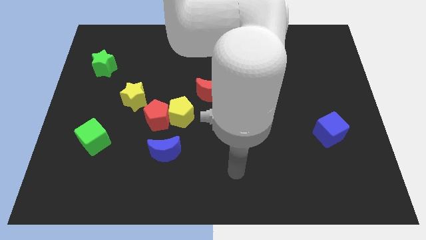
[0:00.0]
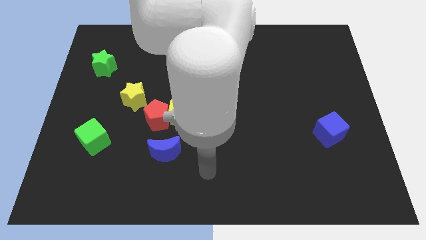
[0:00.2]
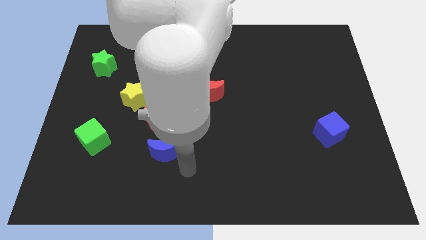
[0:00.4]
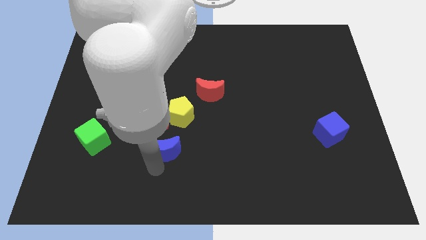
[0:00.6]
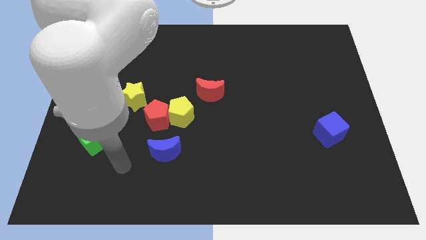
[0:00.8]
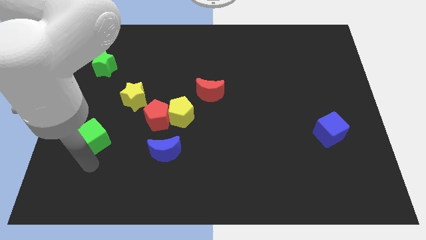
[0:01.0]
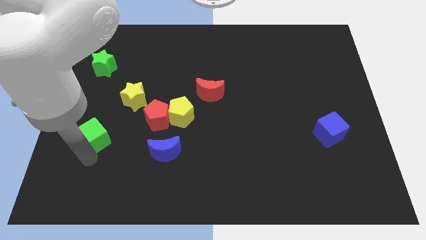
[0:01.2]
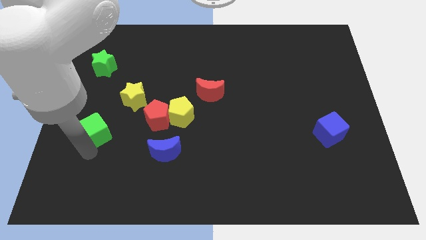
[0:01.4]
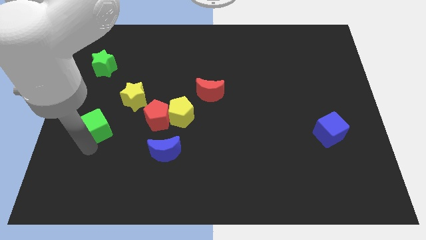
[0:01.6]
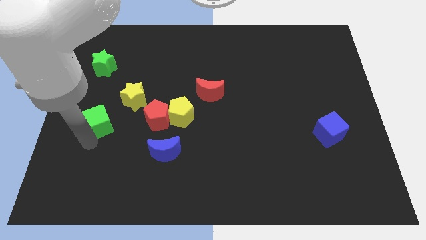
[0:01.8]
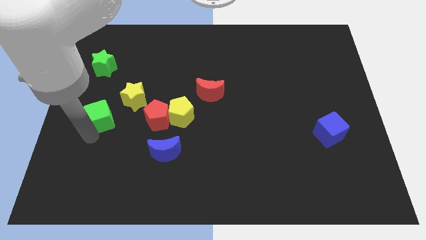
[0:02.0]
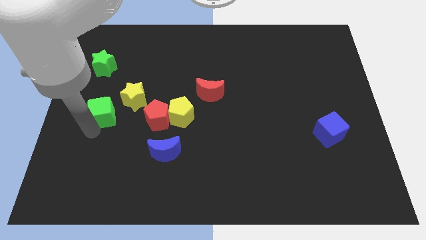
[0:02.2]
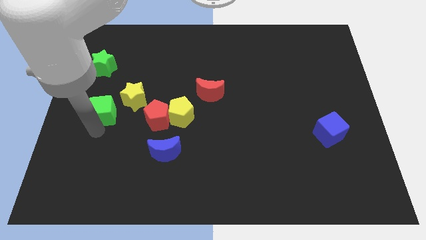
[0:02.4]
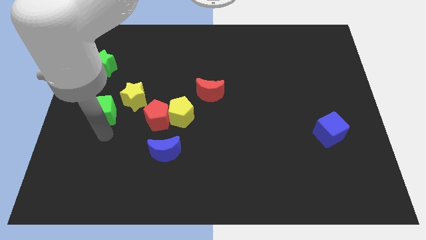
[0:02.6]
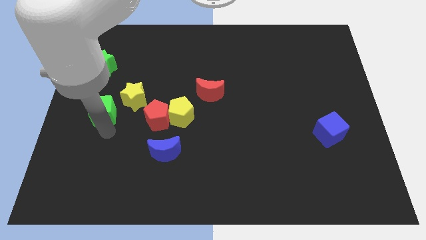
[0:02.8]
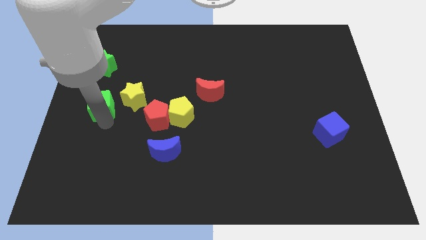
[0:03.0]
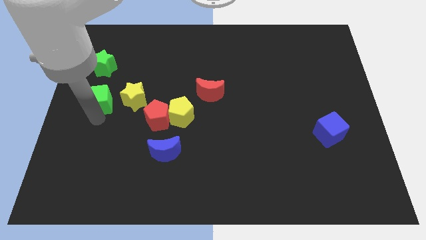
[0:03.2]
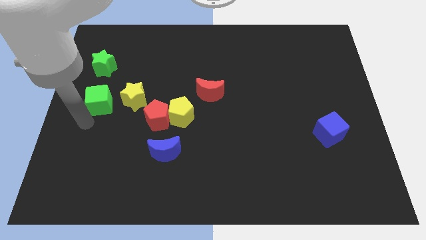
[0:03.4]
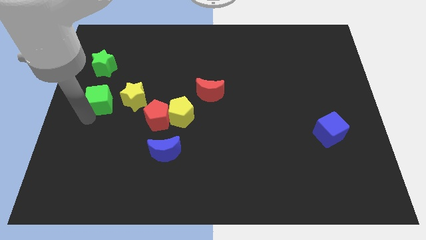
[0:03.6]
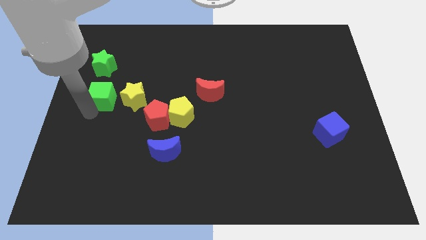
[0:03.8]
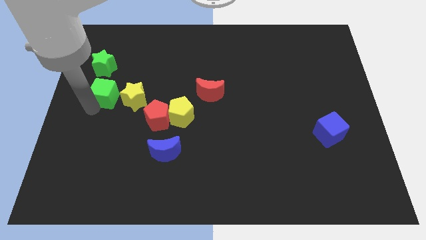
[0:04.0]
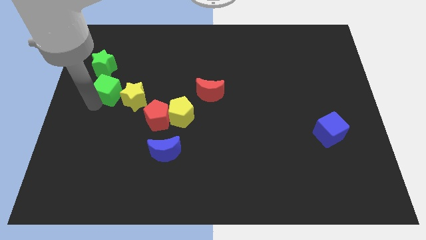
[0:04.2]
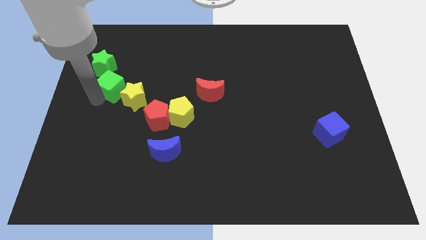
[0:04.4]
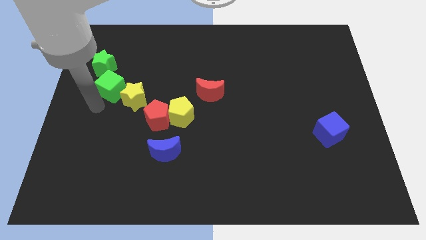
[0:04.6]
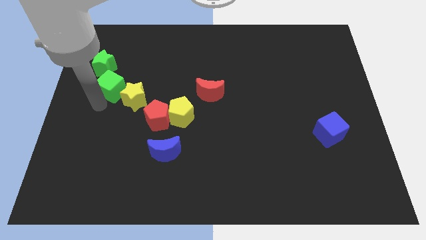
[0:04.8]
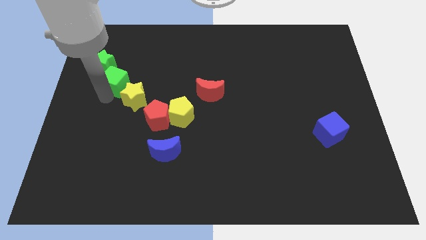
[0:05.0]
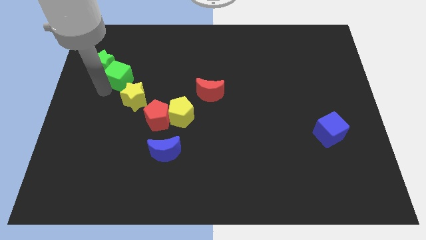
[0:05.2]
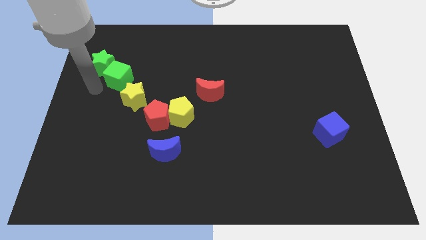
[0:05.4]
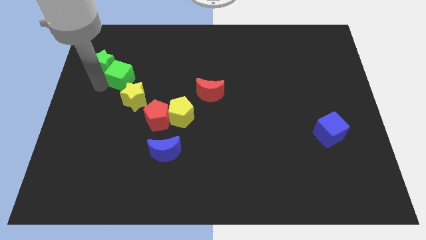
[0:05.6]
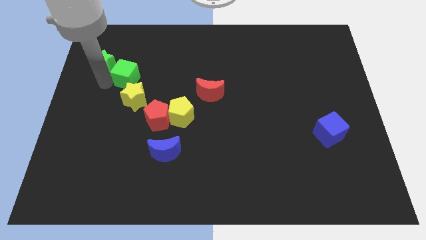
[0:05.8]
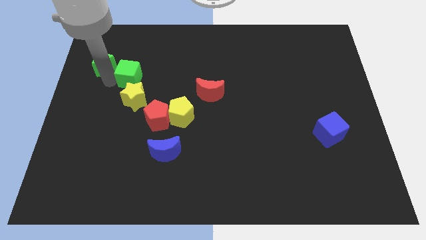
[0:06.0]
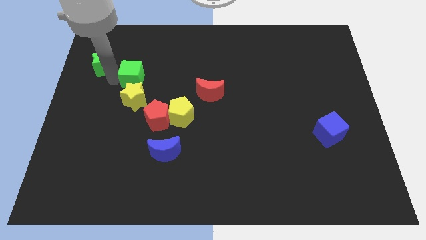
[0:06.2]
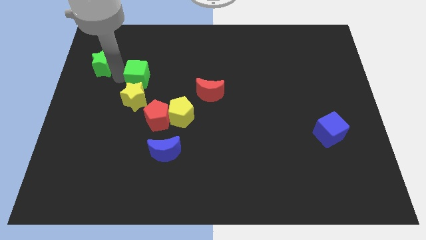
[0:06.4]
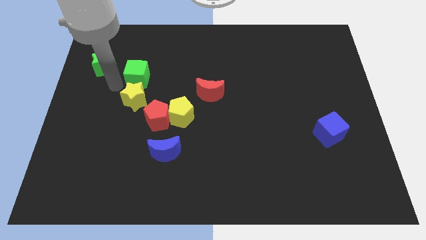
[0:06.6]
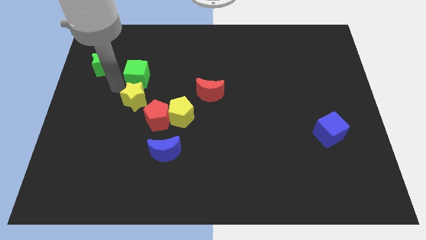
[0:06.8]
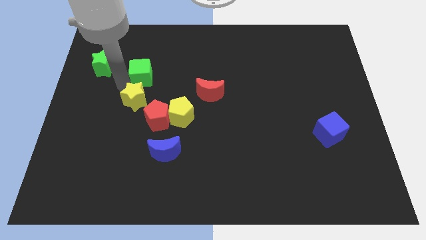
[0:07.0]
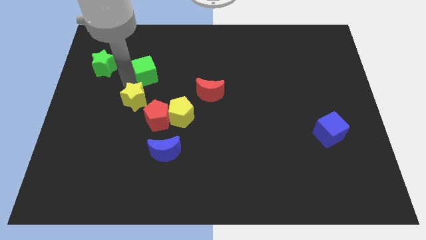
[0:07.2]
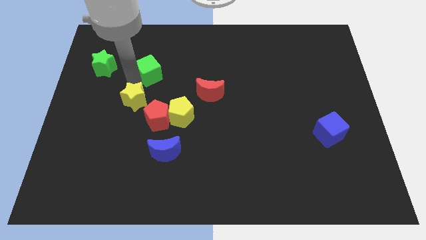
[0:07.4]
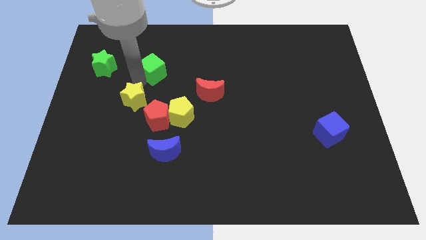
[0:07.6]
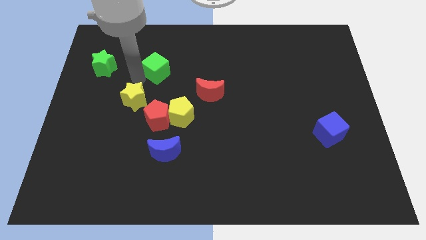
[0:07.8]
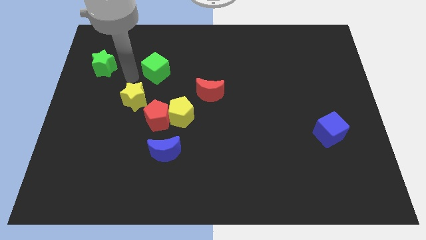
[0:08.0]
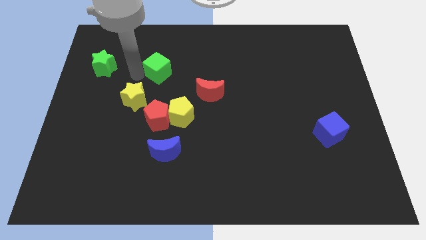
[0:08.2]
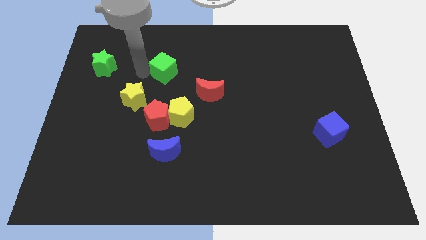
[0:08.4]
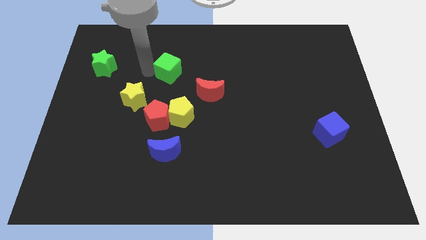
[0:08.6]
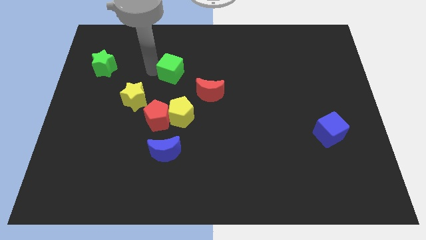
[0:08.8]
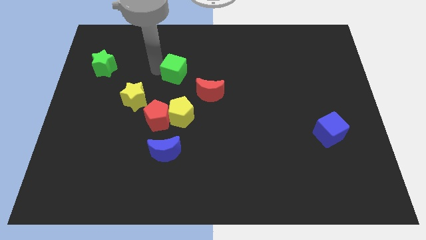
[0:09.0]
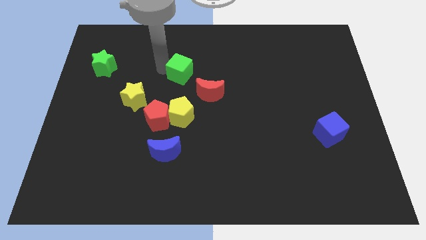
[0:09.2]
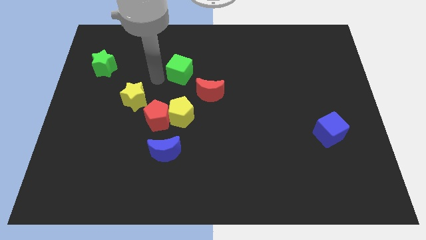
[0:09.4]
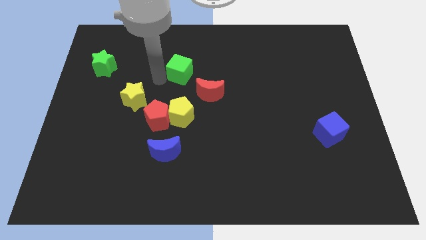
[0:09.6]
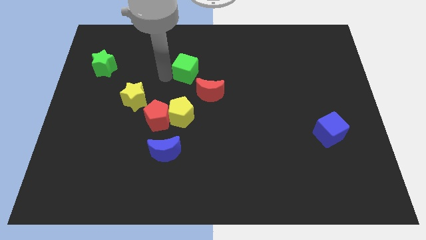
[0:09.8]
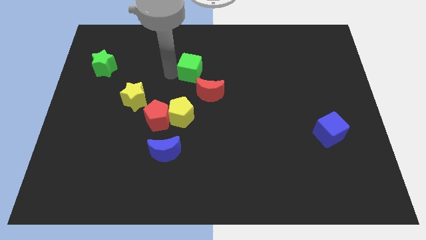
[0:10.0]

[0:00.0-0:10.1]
put the green cube to the top of the red moon

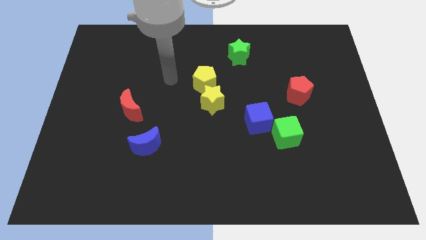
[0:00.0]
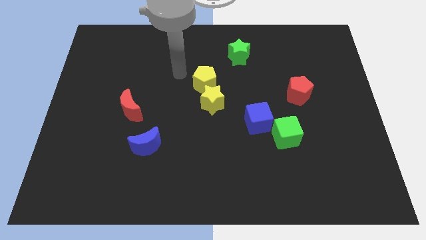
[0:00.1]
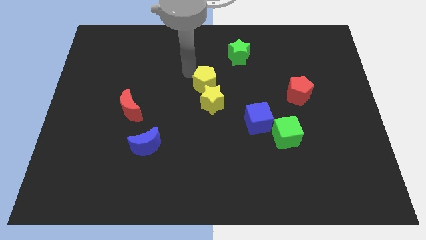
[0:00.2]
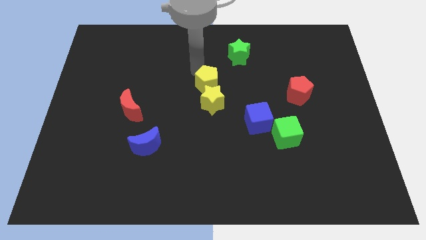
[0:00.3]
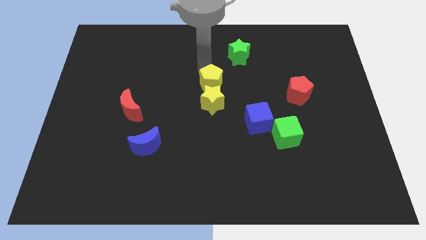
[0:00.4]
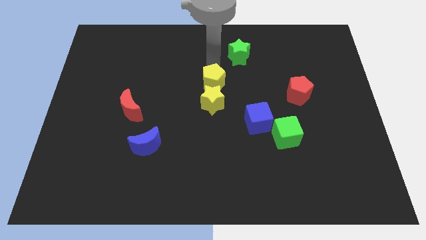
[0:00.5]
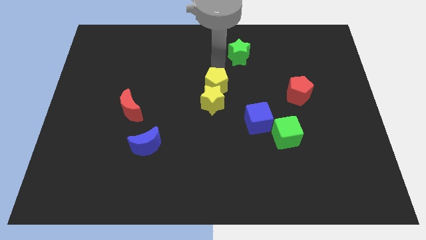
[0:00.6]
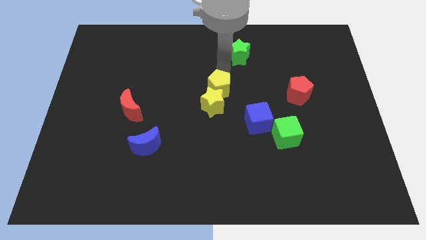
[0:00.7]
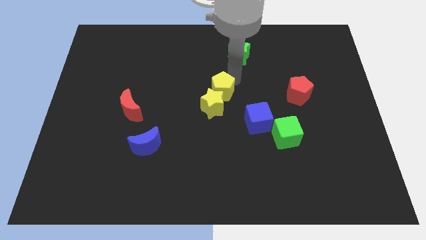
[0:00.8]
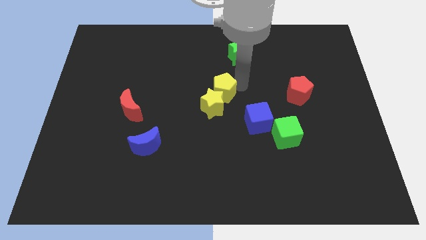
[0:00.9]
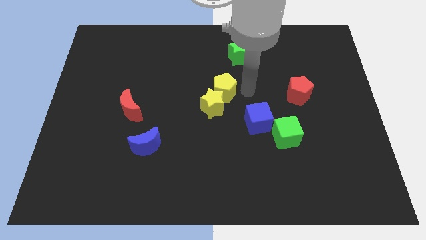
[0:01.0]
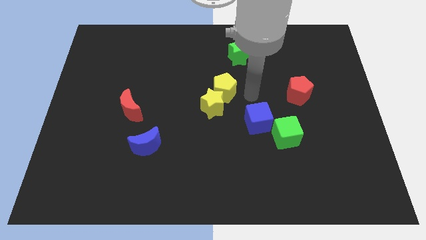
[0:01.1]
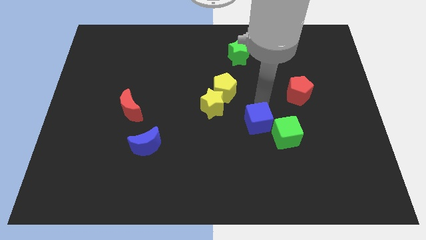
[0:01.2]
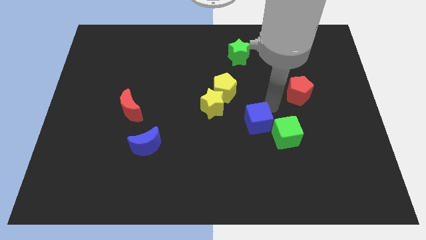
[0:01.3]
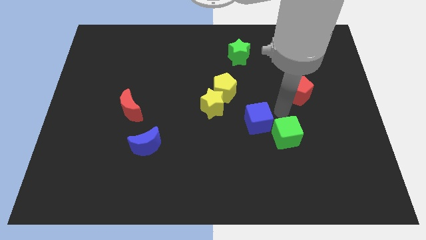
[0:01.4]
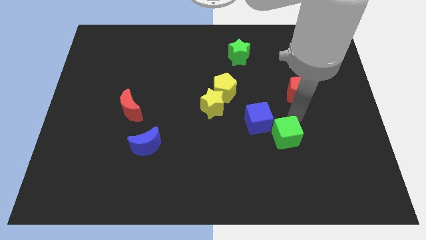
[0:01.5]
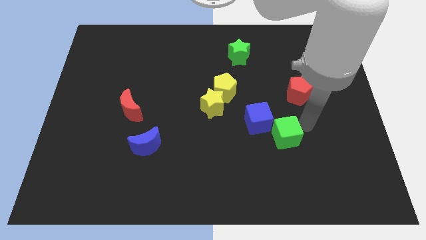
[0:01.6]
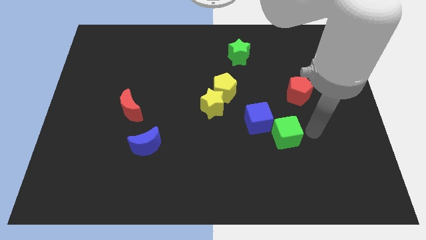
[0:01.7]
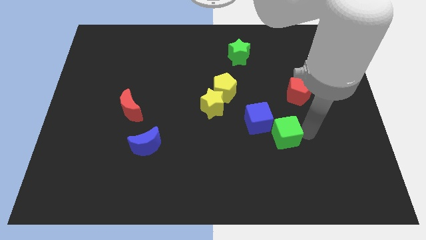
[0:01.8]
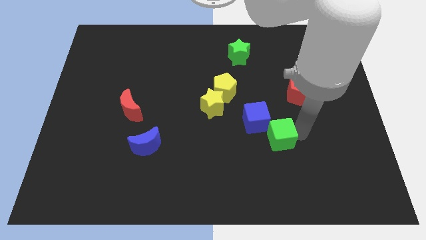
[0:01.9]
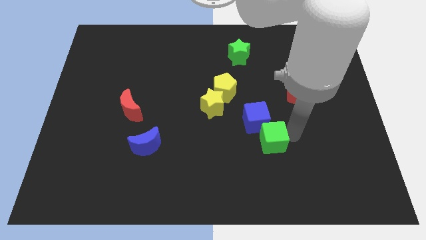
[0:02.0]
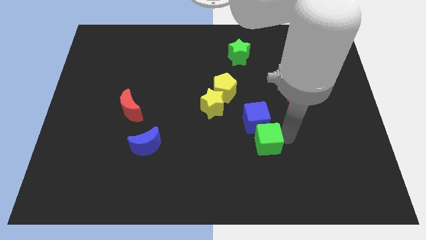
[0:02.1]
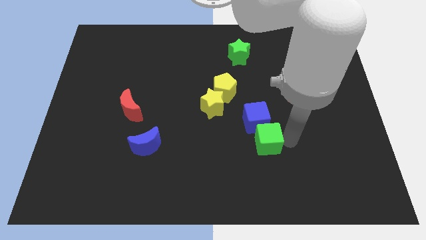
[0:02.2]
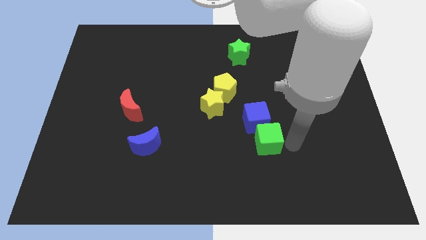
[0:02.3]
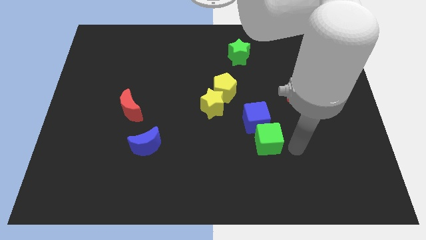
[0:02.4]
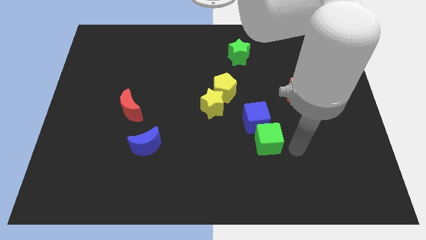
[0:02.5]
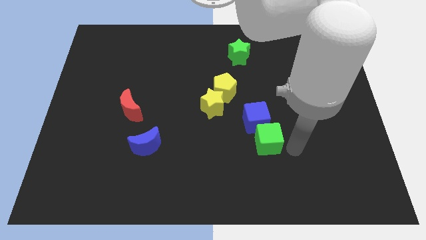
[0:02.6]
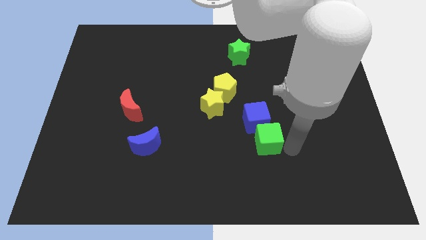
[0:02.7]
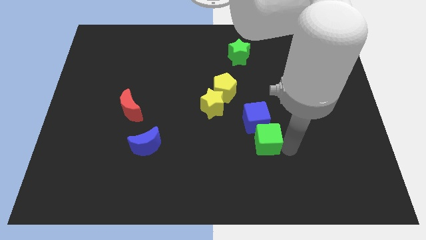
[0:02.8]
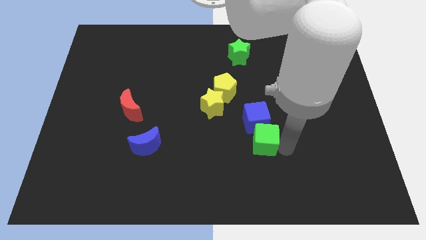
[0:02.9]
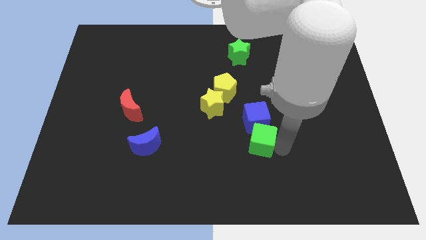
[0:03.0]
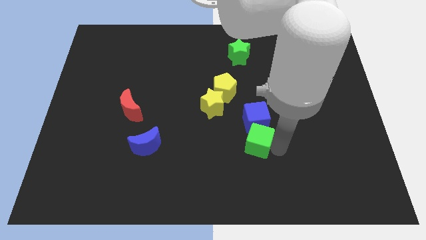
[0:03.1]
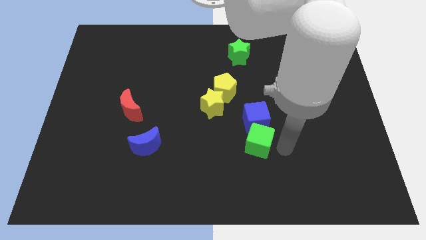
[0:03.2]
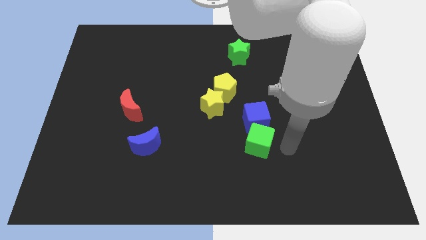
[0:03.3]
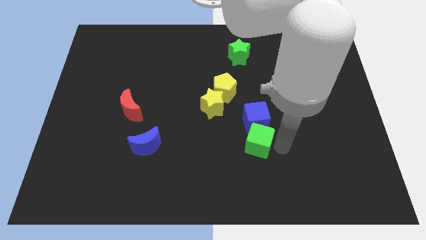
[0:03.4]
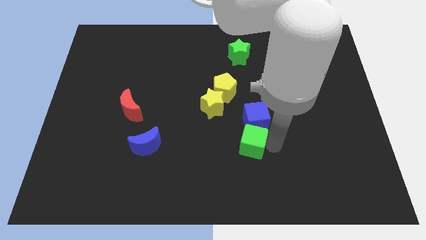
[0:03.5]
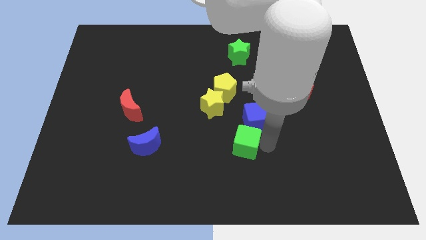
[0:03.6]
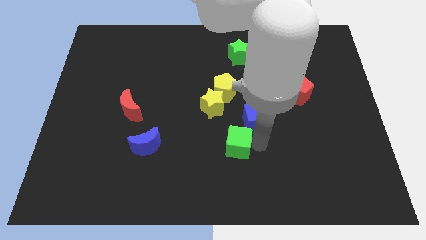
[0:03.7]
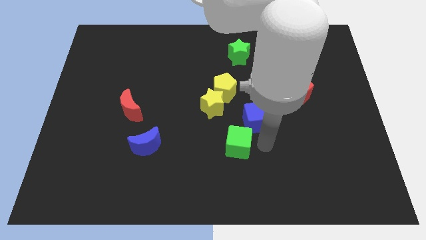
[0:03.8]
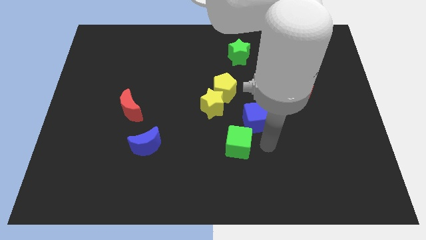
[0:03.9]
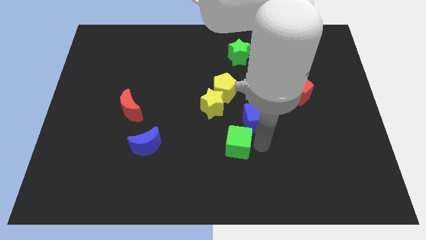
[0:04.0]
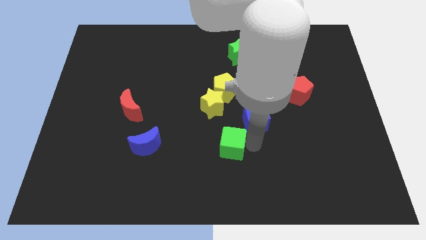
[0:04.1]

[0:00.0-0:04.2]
move the green cube to the bottom side of the yellow star
